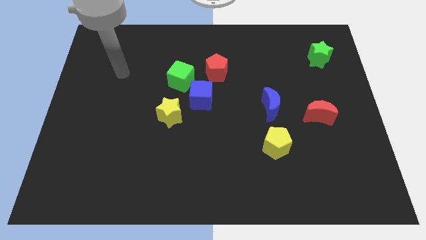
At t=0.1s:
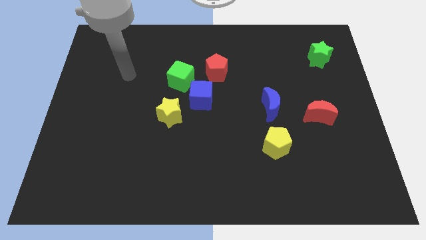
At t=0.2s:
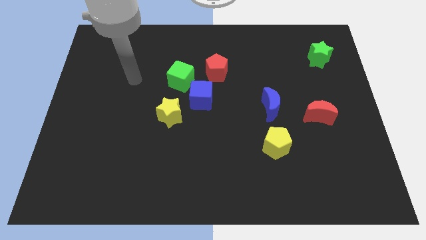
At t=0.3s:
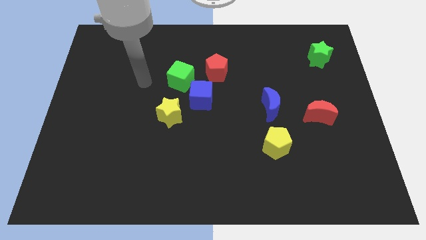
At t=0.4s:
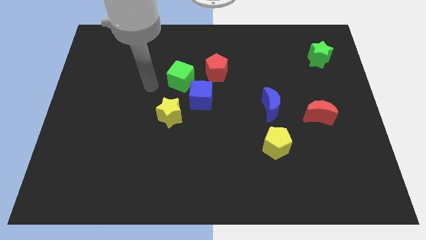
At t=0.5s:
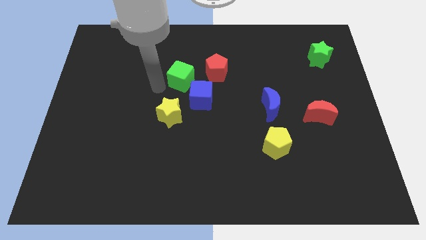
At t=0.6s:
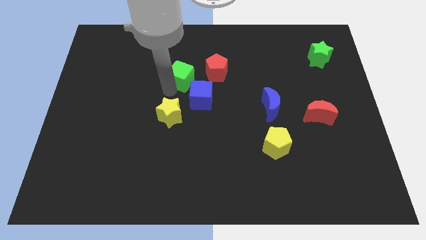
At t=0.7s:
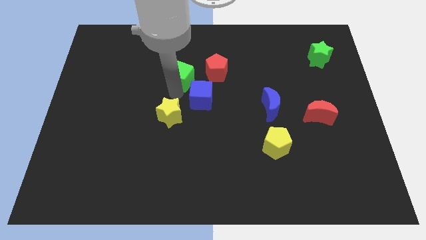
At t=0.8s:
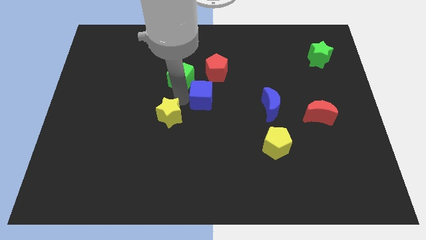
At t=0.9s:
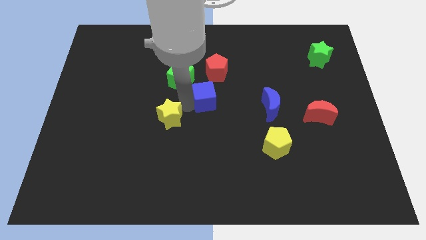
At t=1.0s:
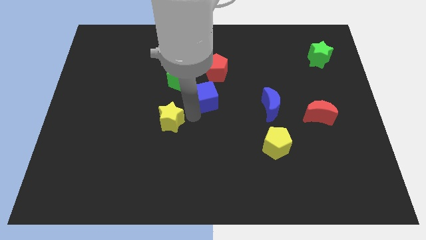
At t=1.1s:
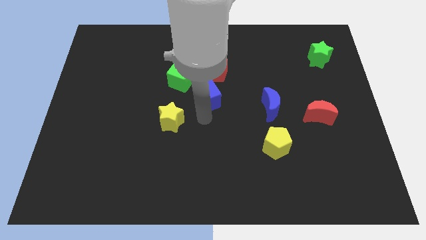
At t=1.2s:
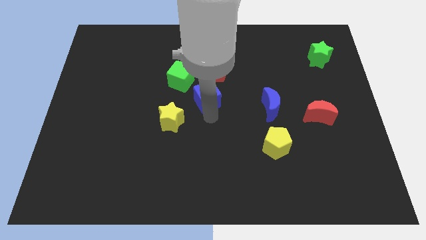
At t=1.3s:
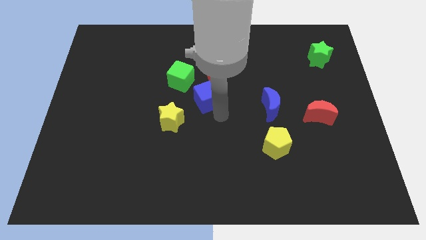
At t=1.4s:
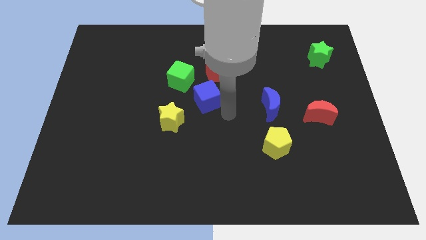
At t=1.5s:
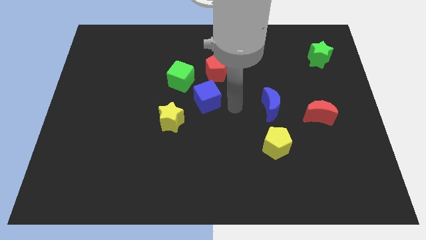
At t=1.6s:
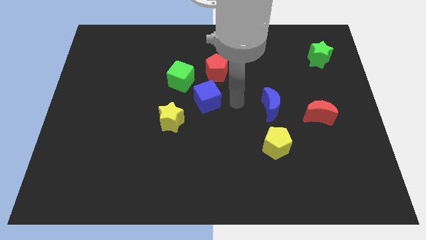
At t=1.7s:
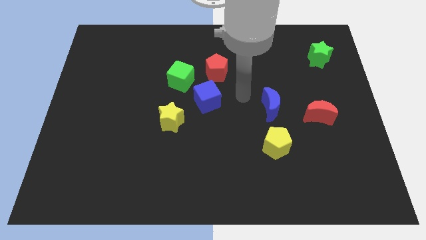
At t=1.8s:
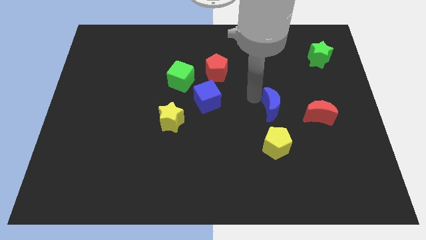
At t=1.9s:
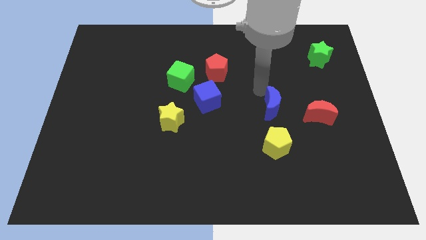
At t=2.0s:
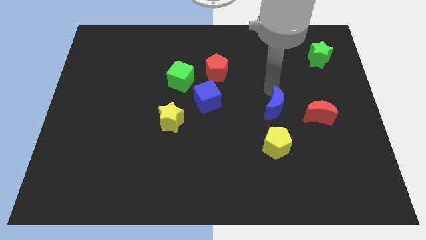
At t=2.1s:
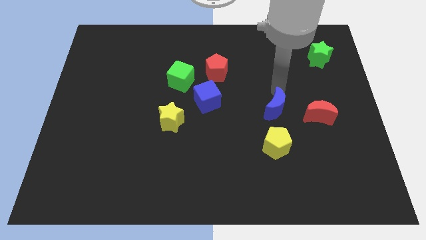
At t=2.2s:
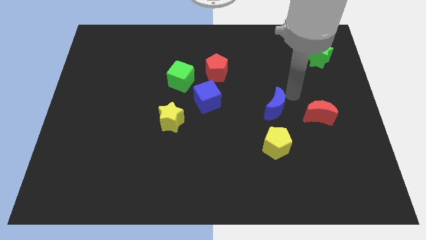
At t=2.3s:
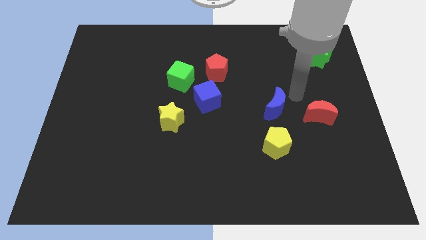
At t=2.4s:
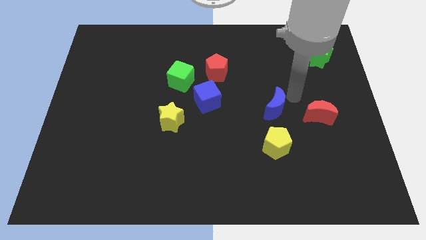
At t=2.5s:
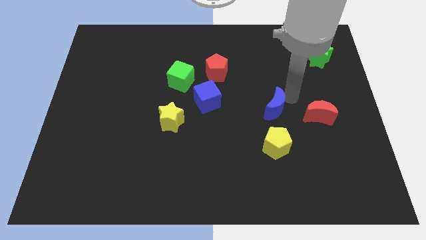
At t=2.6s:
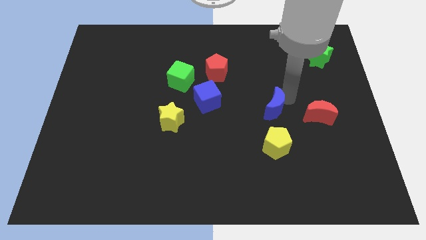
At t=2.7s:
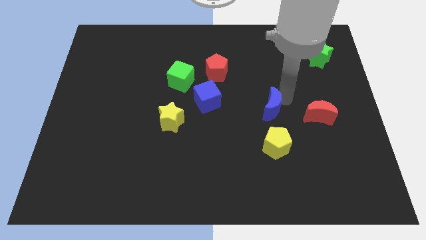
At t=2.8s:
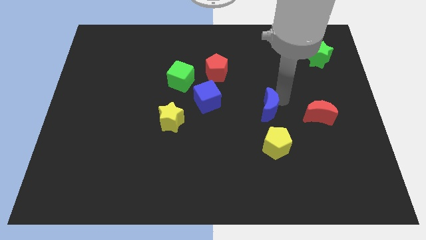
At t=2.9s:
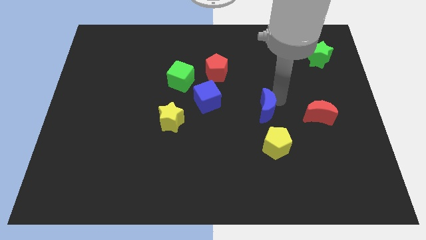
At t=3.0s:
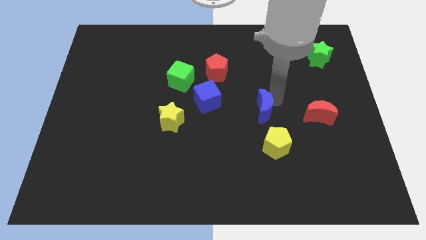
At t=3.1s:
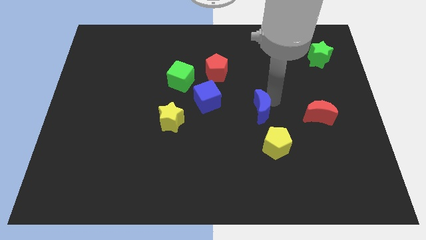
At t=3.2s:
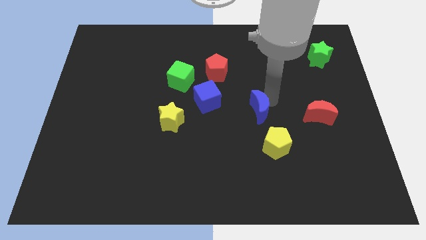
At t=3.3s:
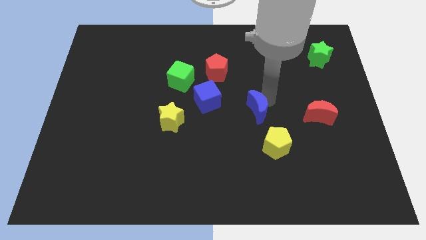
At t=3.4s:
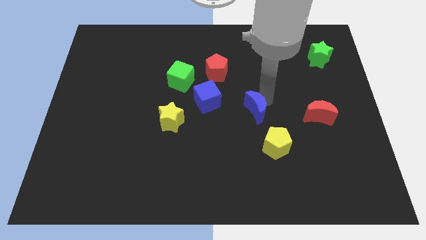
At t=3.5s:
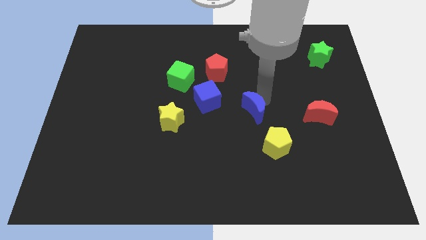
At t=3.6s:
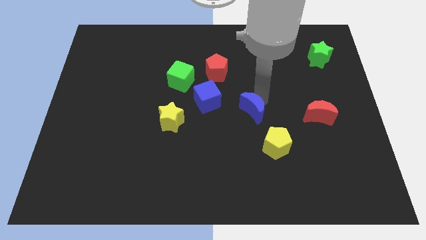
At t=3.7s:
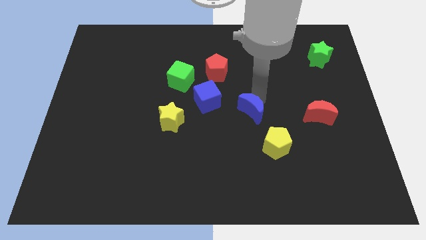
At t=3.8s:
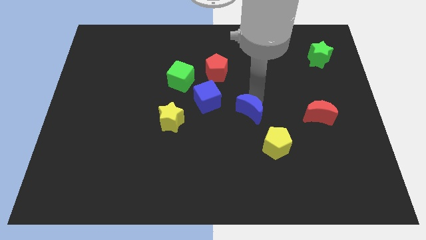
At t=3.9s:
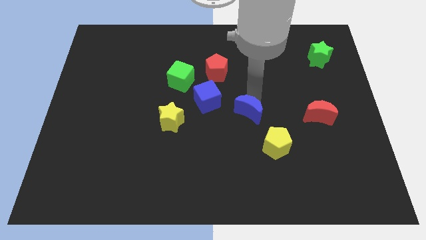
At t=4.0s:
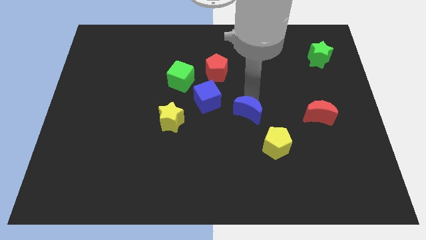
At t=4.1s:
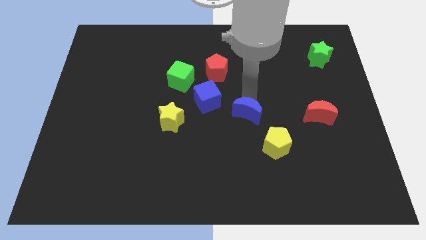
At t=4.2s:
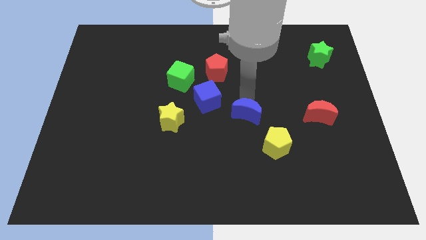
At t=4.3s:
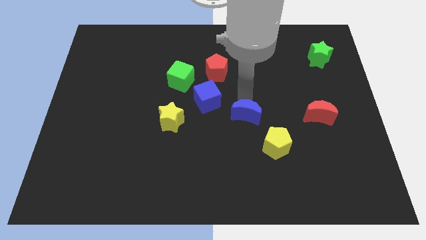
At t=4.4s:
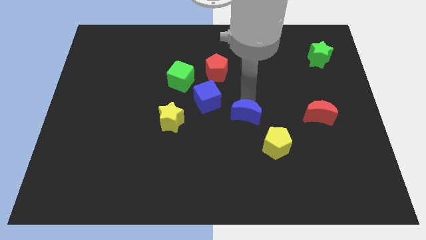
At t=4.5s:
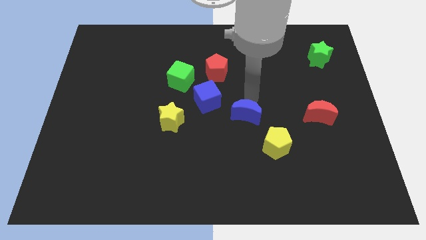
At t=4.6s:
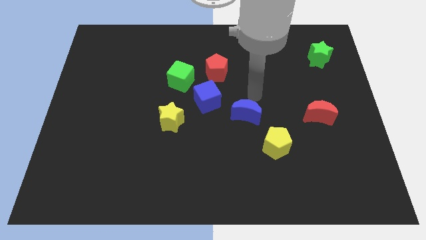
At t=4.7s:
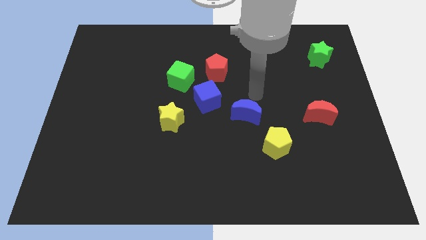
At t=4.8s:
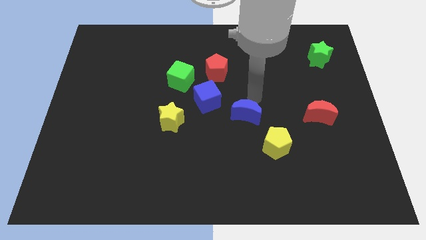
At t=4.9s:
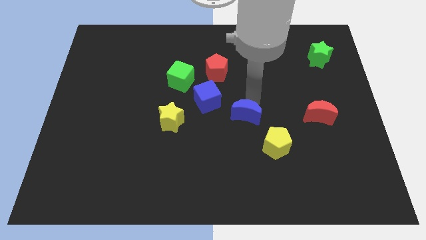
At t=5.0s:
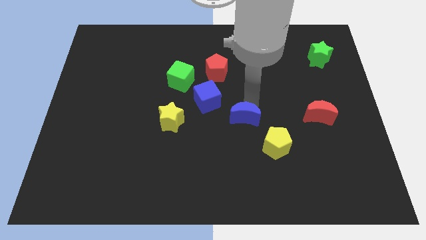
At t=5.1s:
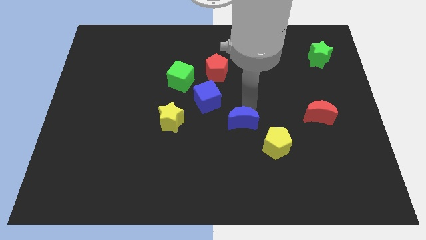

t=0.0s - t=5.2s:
push the blue moon diagonally down and left a little

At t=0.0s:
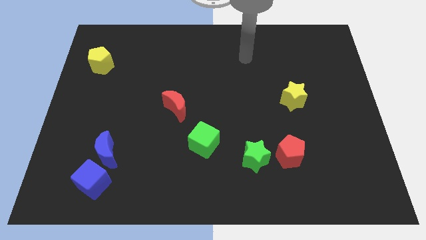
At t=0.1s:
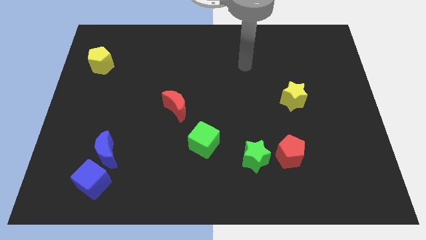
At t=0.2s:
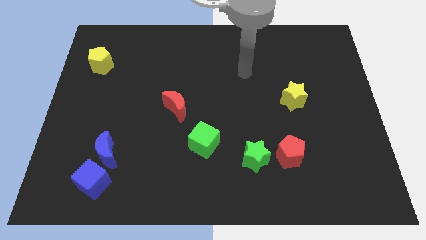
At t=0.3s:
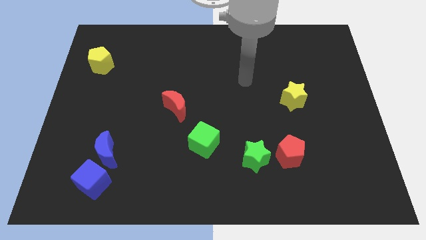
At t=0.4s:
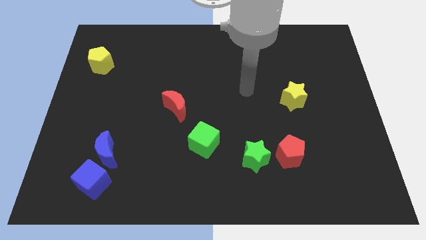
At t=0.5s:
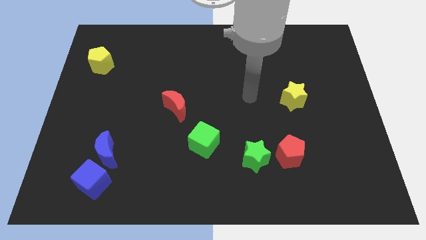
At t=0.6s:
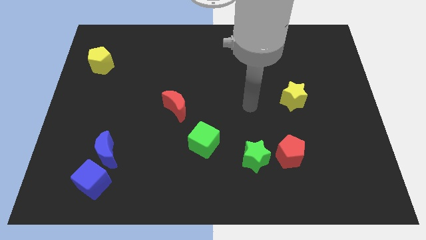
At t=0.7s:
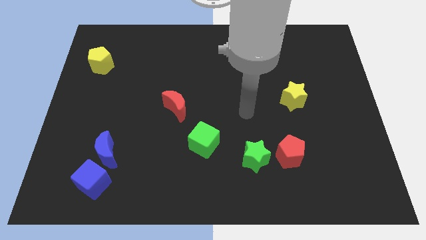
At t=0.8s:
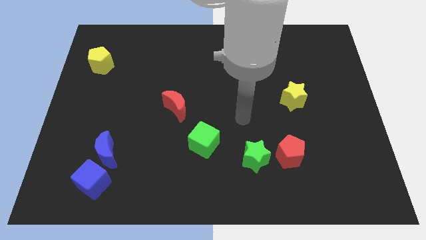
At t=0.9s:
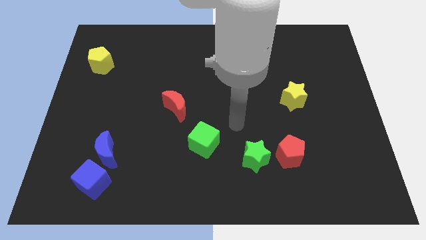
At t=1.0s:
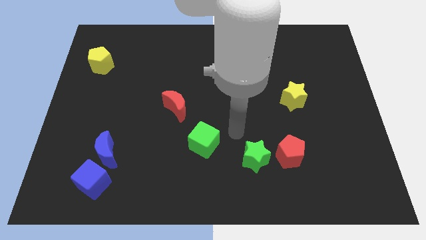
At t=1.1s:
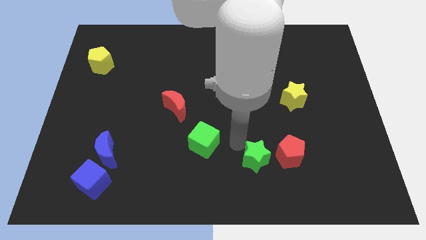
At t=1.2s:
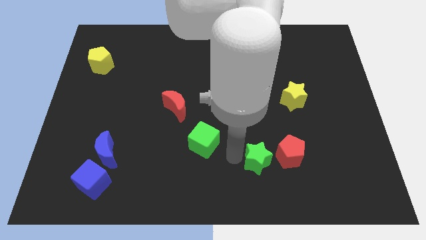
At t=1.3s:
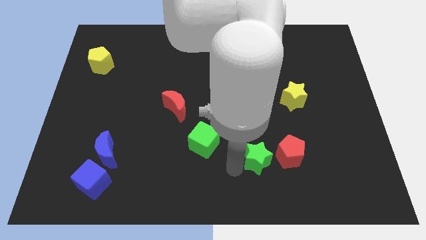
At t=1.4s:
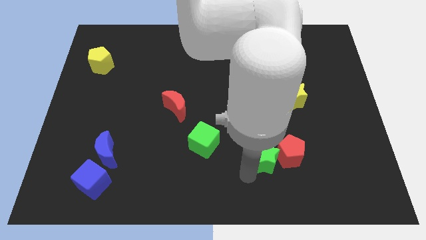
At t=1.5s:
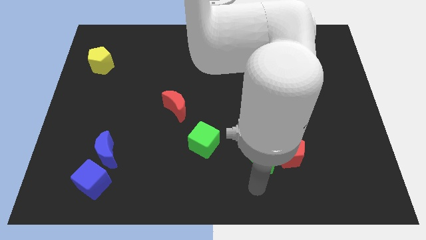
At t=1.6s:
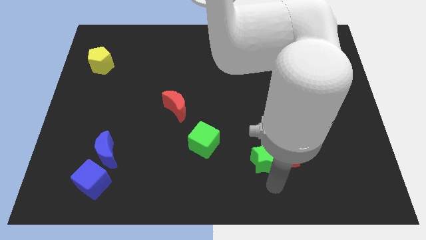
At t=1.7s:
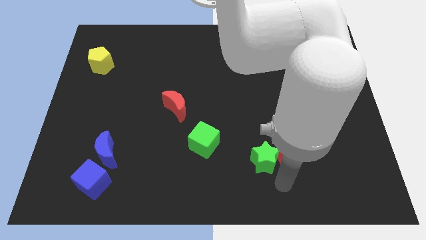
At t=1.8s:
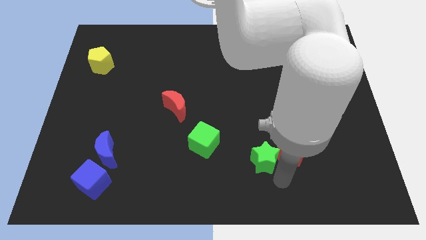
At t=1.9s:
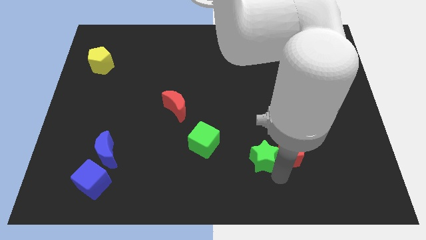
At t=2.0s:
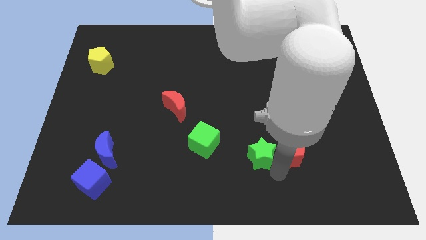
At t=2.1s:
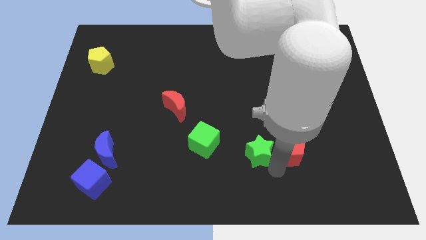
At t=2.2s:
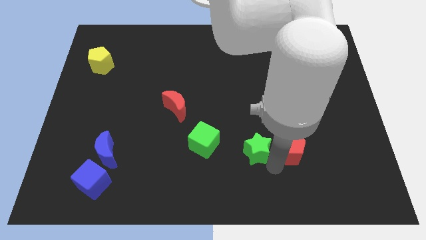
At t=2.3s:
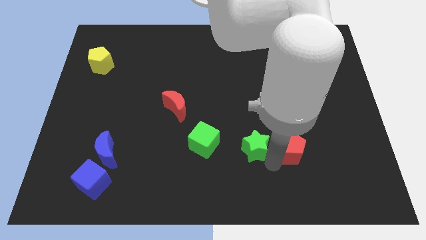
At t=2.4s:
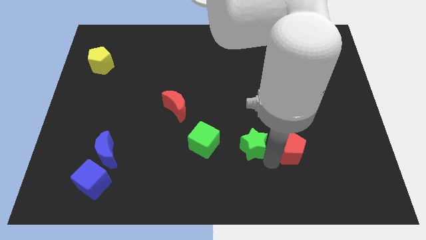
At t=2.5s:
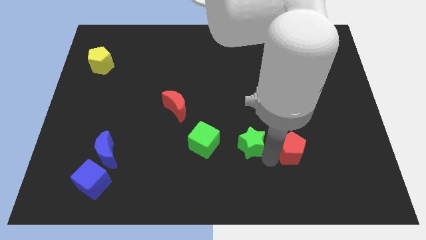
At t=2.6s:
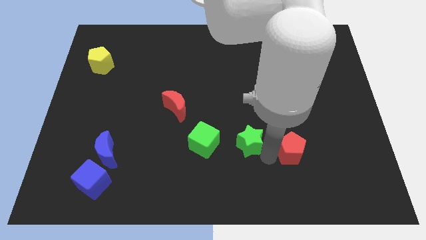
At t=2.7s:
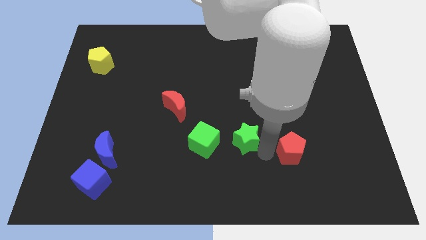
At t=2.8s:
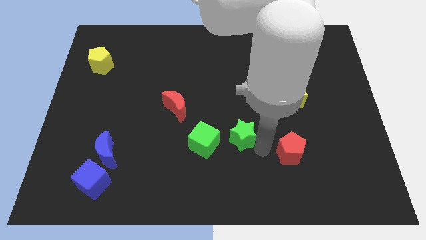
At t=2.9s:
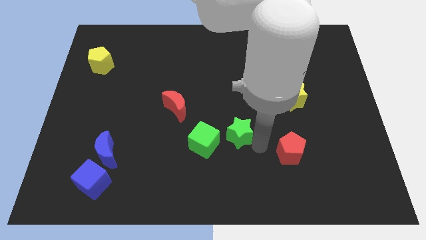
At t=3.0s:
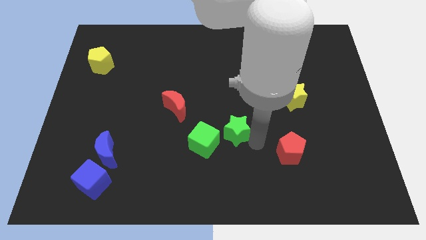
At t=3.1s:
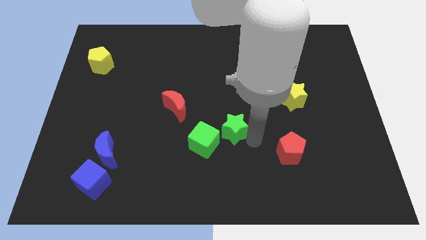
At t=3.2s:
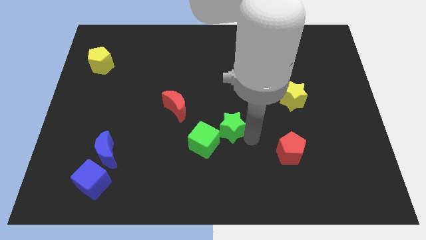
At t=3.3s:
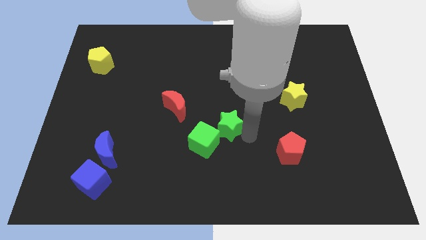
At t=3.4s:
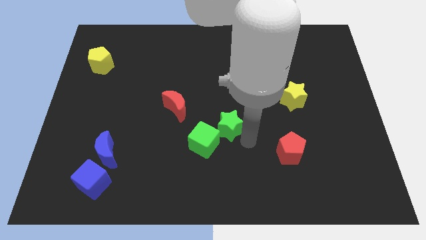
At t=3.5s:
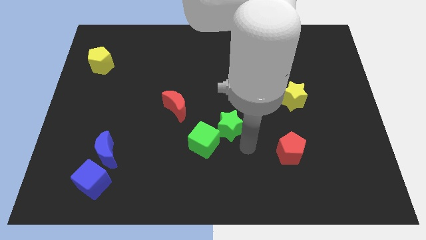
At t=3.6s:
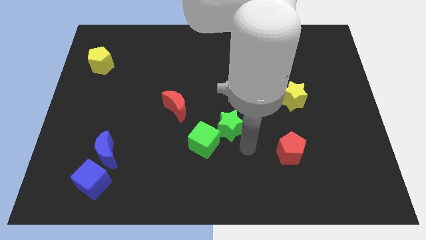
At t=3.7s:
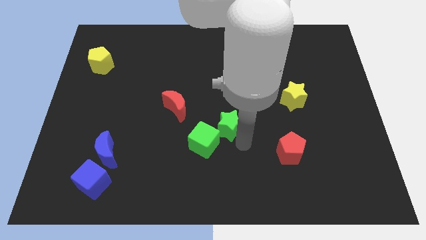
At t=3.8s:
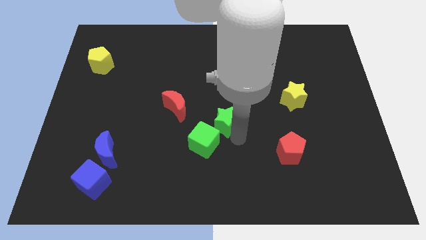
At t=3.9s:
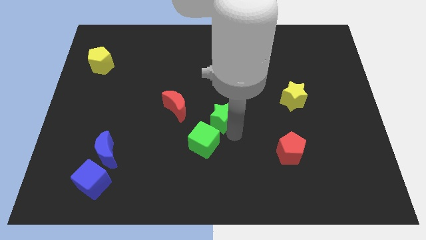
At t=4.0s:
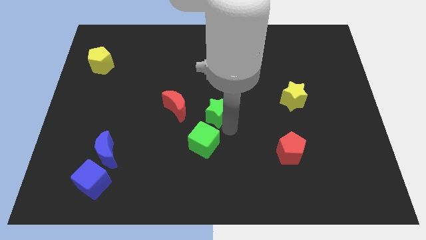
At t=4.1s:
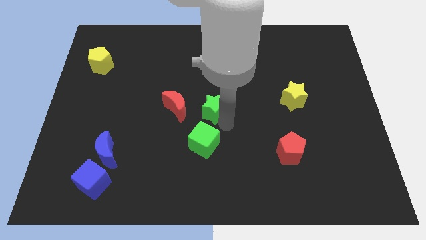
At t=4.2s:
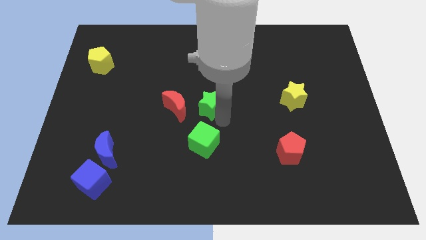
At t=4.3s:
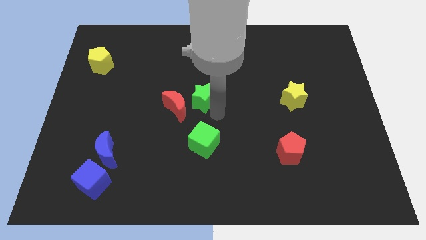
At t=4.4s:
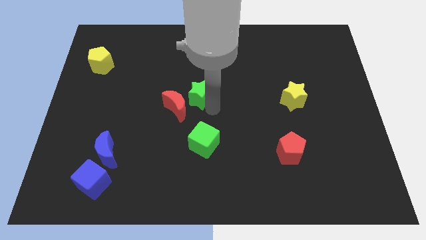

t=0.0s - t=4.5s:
move the green star up and then left
